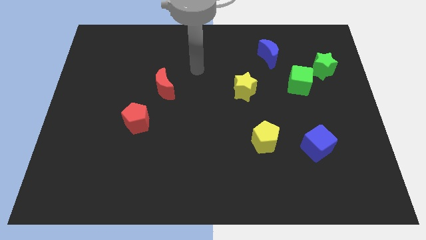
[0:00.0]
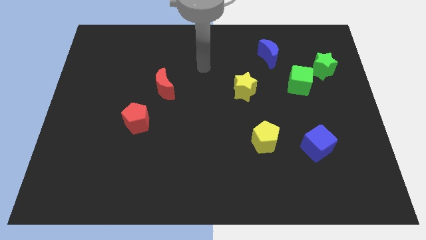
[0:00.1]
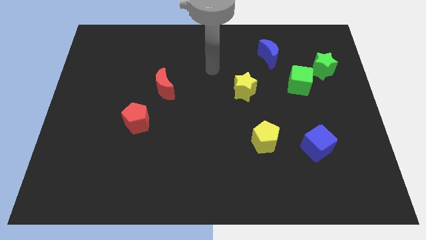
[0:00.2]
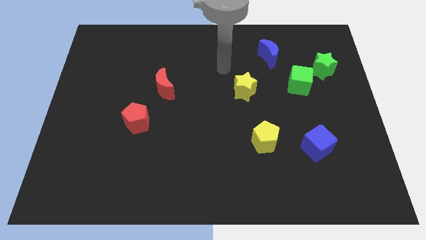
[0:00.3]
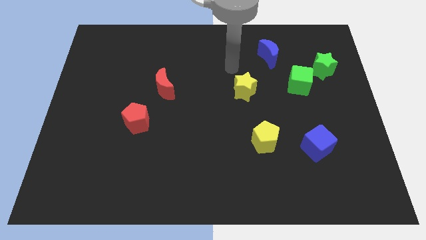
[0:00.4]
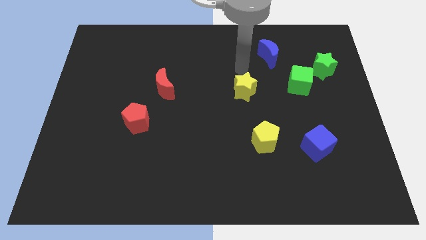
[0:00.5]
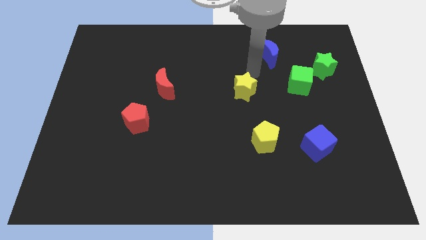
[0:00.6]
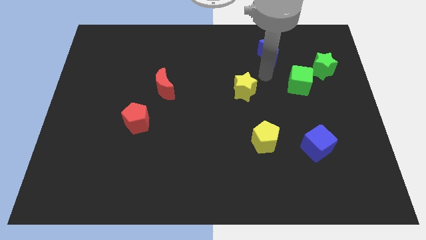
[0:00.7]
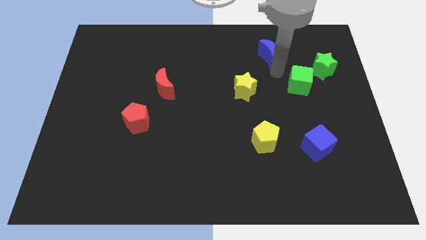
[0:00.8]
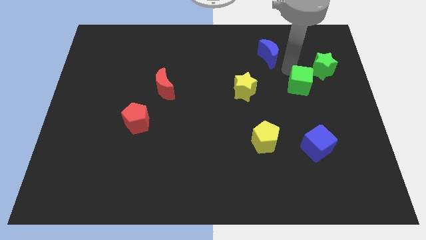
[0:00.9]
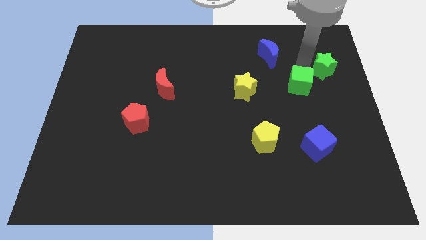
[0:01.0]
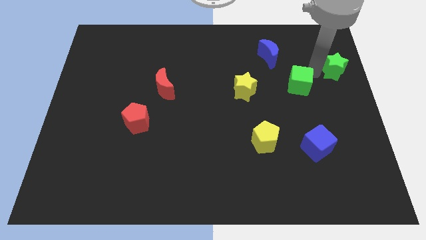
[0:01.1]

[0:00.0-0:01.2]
pull the green cube apart from the green star

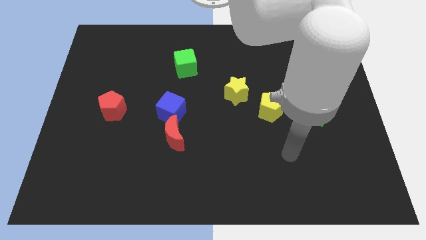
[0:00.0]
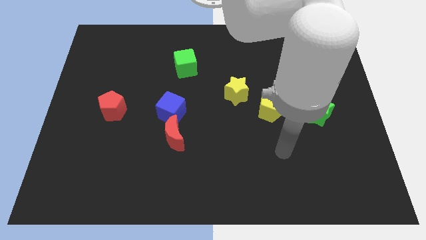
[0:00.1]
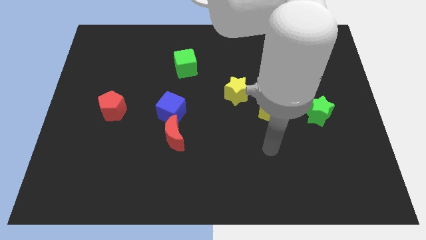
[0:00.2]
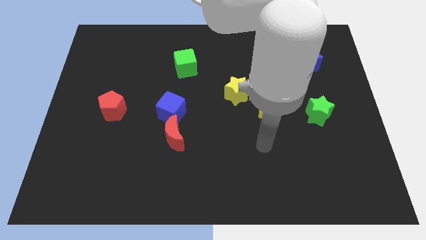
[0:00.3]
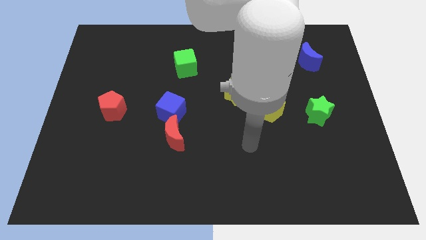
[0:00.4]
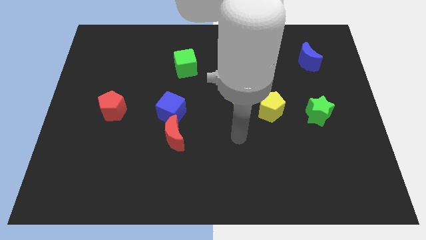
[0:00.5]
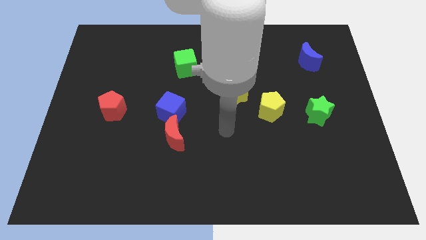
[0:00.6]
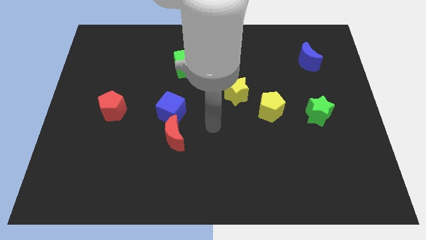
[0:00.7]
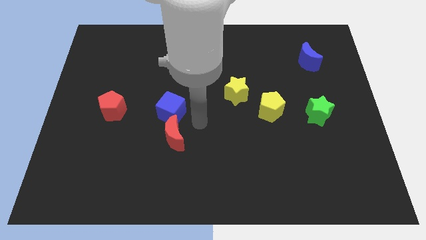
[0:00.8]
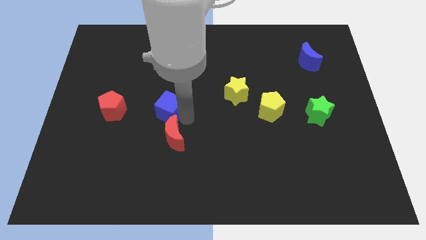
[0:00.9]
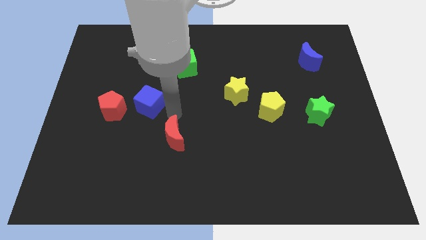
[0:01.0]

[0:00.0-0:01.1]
pull the red moon apart from the blue cube

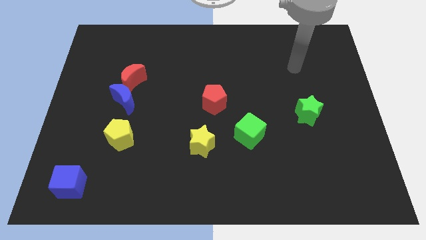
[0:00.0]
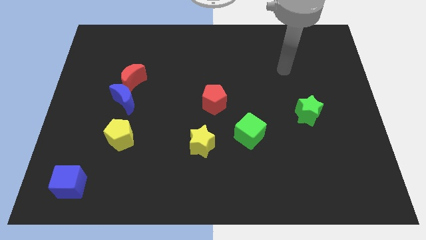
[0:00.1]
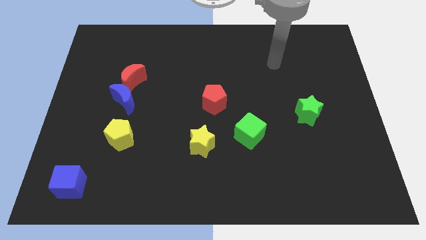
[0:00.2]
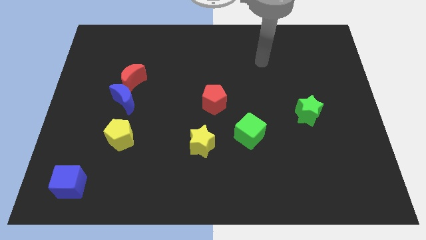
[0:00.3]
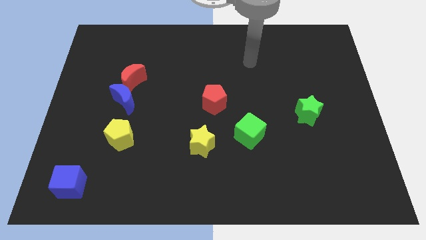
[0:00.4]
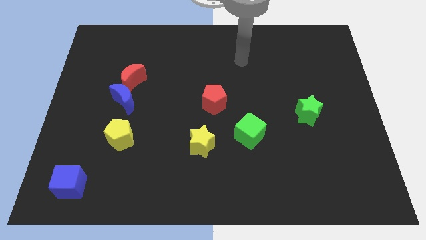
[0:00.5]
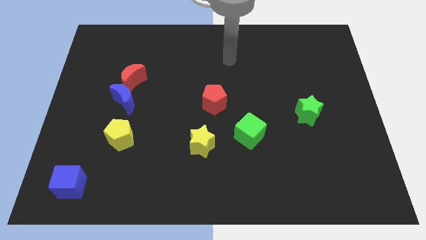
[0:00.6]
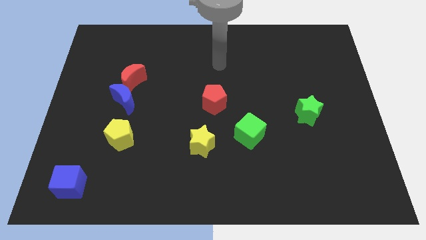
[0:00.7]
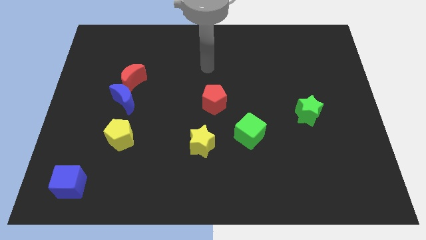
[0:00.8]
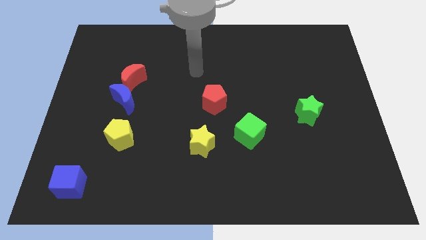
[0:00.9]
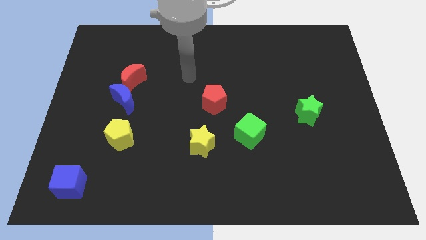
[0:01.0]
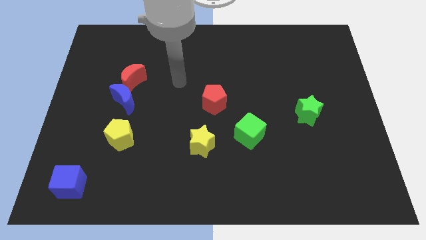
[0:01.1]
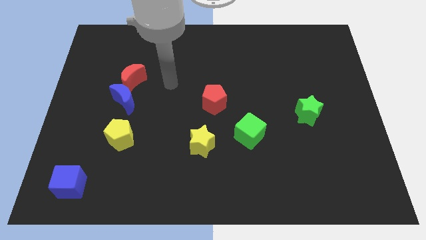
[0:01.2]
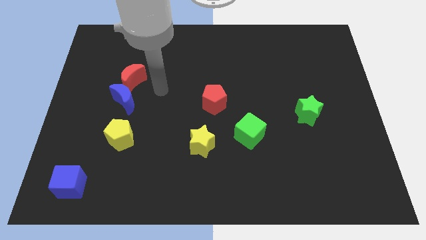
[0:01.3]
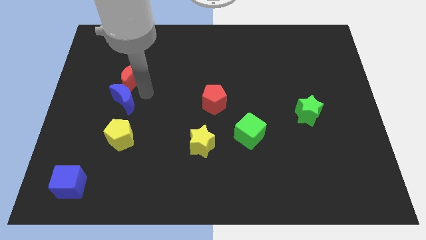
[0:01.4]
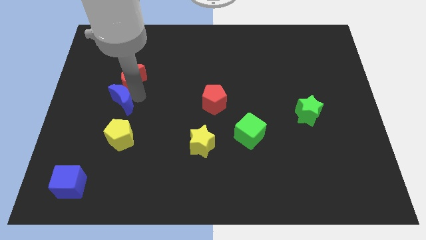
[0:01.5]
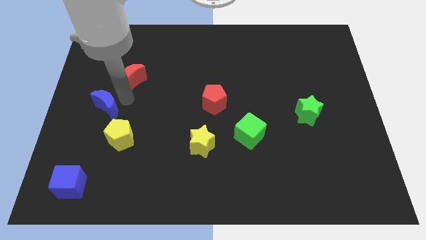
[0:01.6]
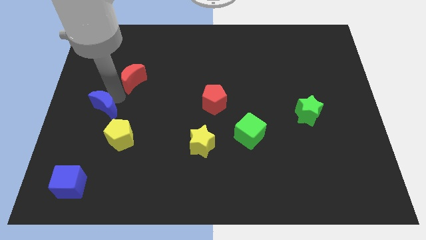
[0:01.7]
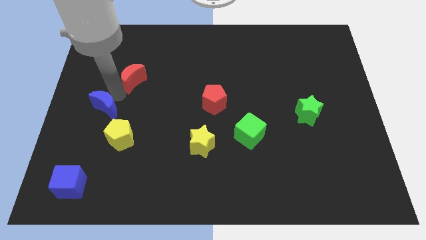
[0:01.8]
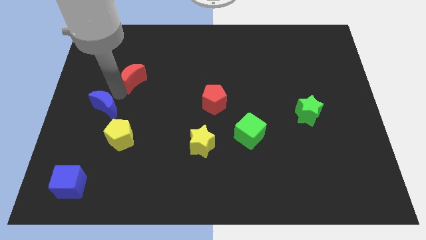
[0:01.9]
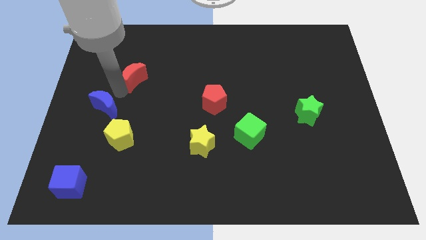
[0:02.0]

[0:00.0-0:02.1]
move the red moon away from the blue moon

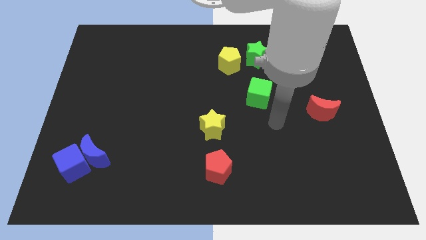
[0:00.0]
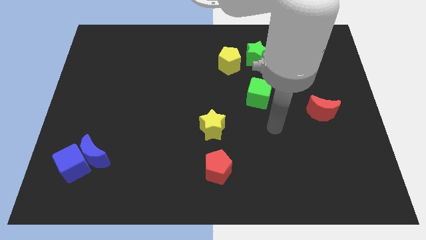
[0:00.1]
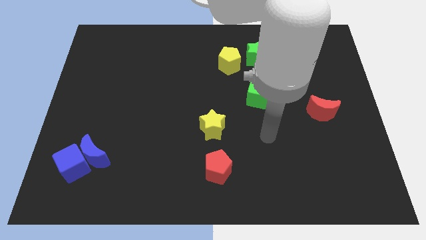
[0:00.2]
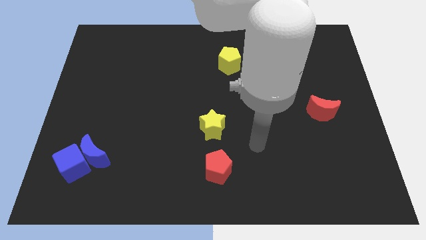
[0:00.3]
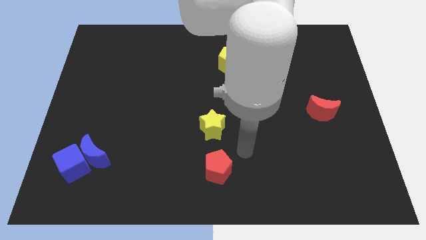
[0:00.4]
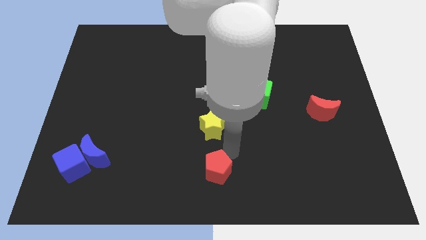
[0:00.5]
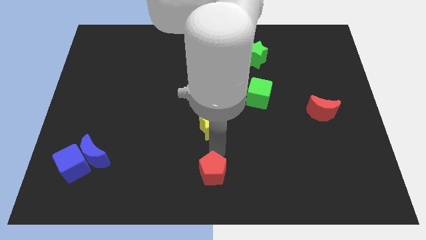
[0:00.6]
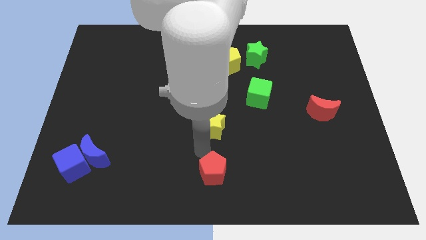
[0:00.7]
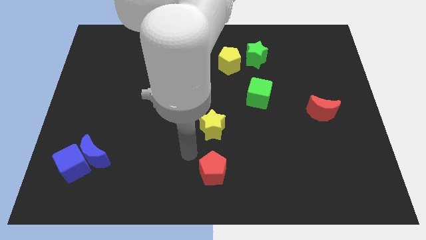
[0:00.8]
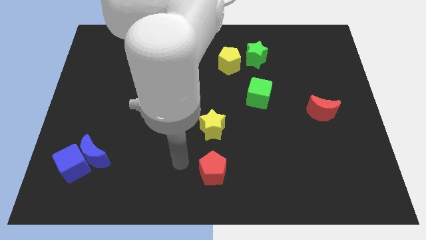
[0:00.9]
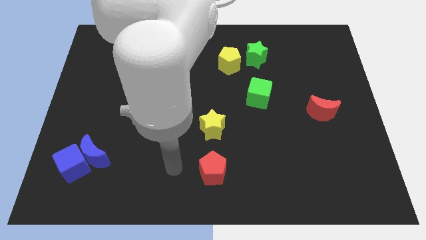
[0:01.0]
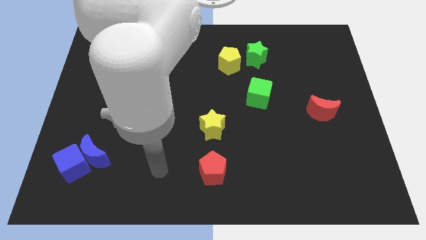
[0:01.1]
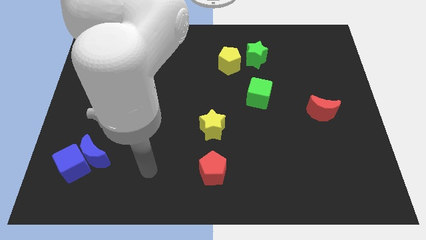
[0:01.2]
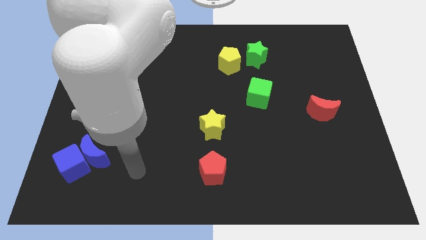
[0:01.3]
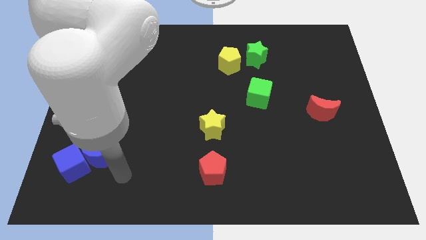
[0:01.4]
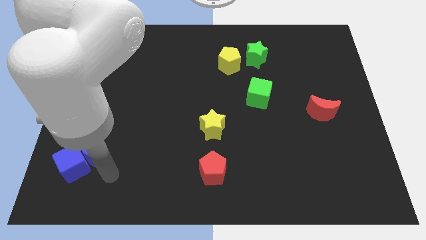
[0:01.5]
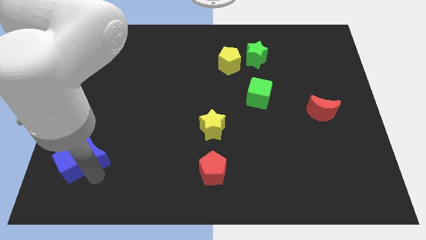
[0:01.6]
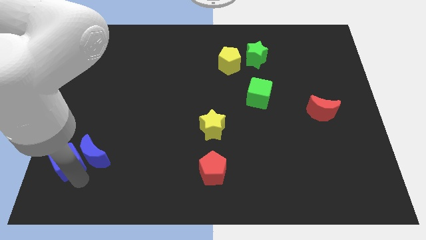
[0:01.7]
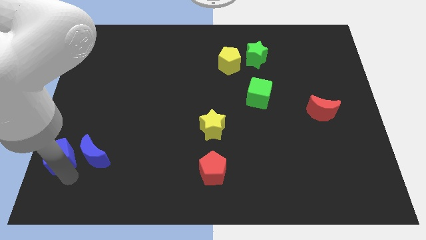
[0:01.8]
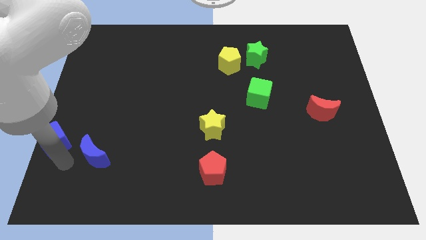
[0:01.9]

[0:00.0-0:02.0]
pull the blue moon apart from the blue cube

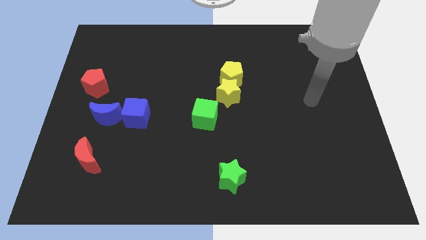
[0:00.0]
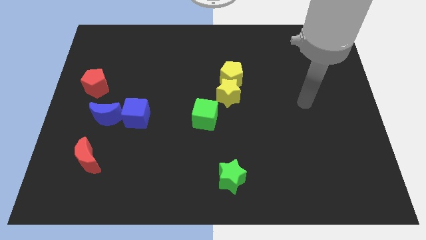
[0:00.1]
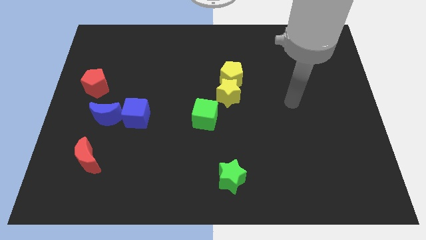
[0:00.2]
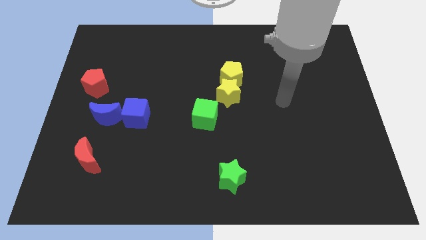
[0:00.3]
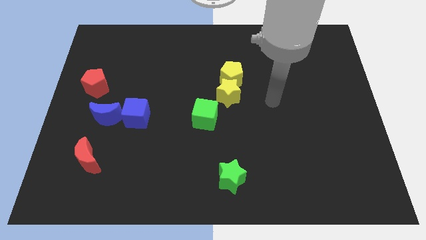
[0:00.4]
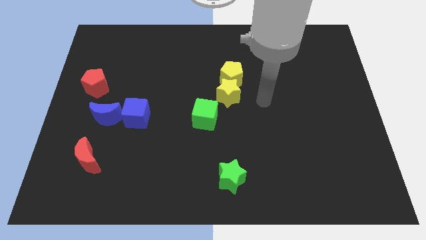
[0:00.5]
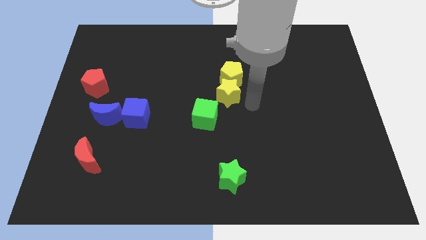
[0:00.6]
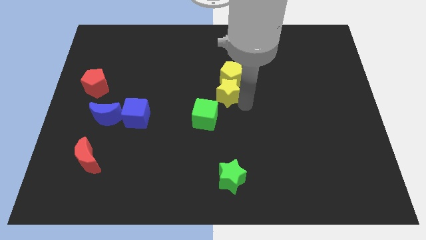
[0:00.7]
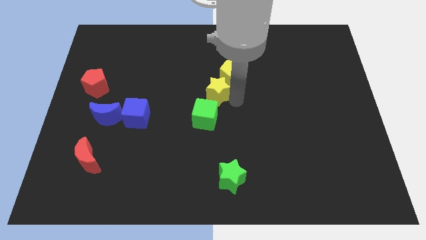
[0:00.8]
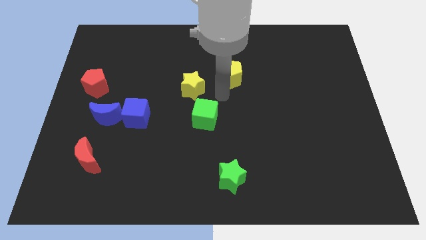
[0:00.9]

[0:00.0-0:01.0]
move the yellow pentagon away from the yellow star

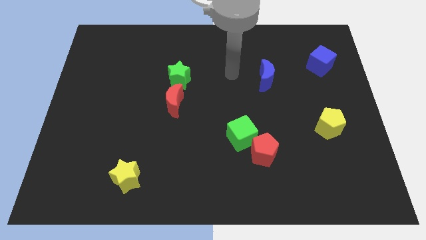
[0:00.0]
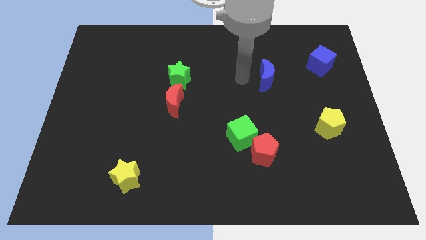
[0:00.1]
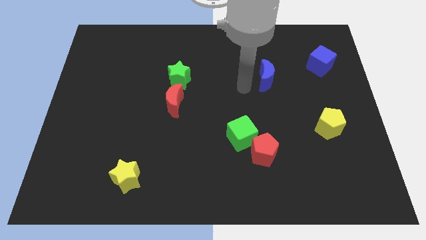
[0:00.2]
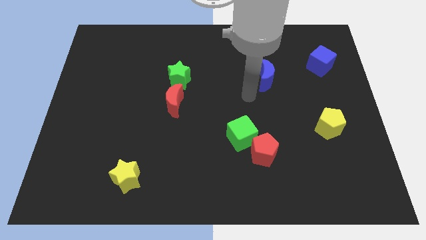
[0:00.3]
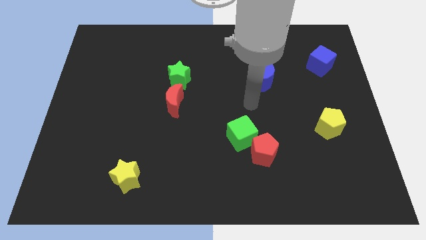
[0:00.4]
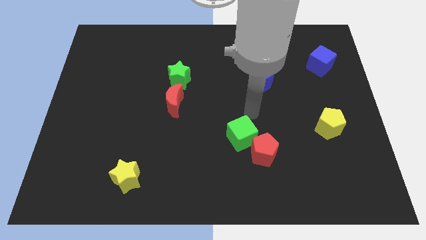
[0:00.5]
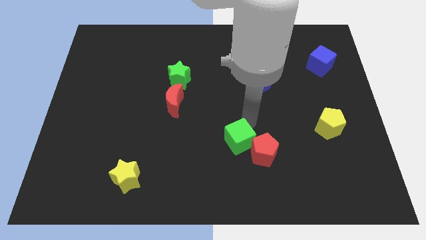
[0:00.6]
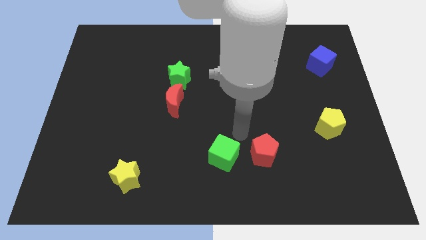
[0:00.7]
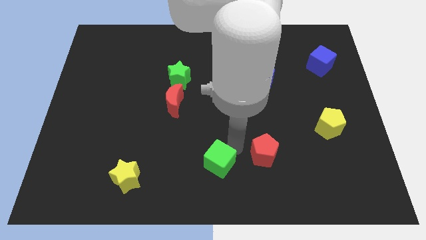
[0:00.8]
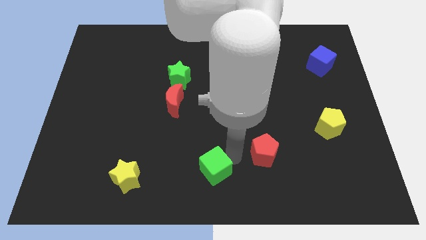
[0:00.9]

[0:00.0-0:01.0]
move the red pentagon away from the green cube

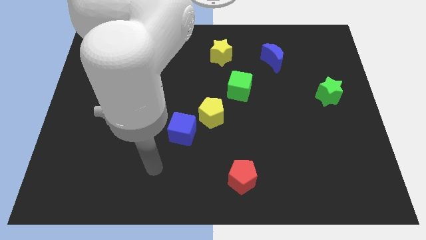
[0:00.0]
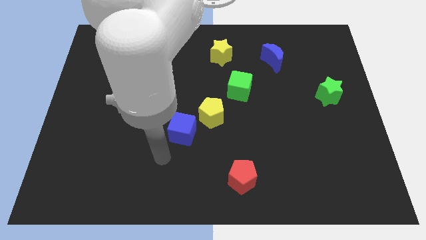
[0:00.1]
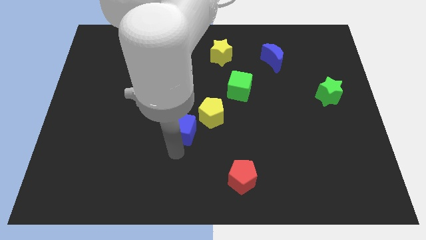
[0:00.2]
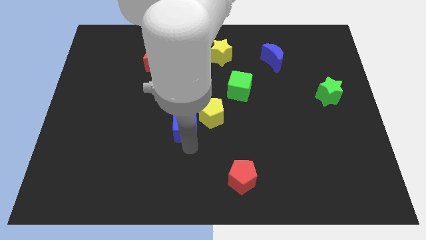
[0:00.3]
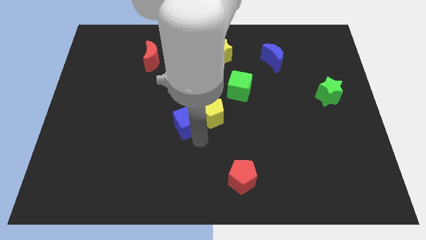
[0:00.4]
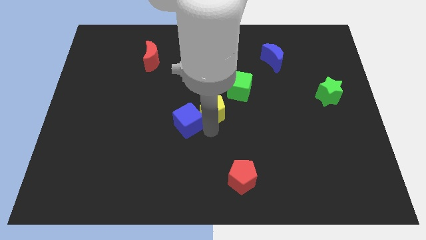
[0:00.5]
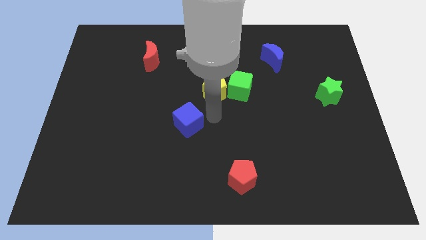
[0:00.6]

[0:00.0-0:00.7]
separate the blue cube from the yellow pentagon
